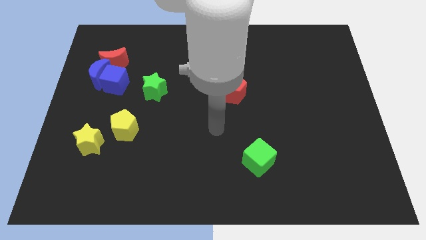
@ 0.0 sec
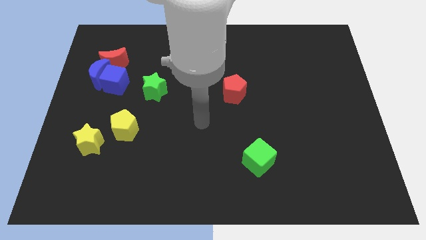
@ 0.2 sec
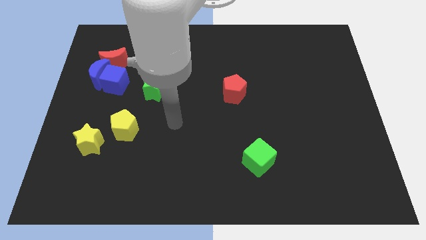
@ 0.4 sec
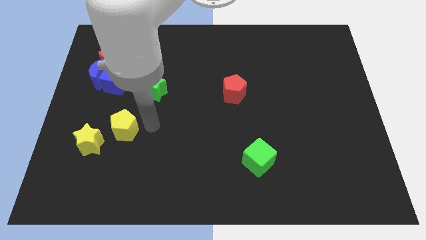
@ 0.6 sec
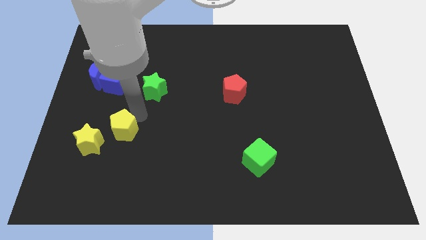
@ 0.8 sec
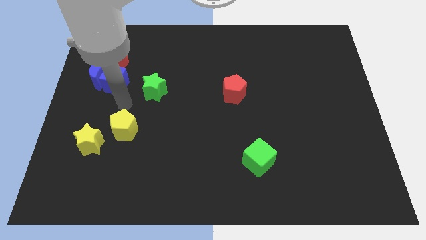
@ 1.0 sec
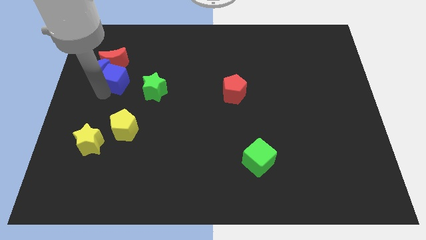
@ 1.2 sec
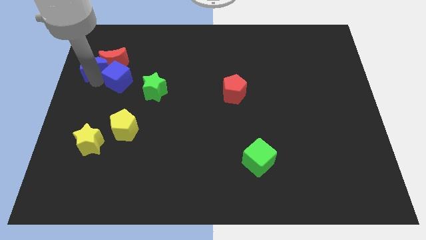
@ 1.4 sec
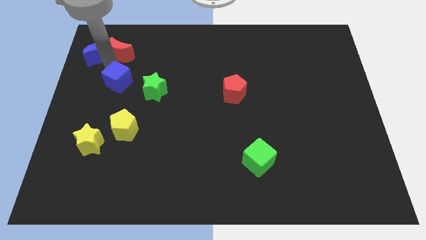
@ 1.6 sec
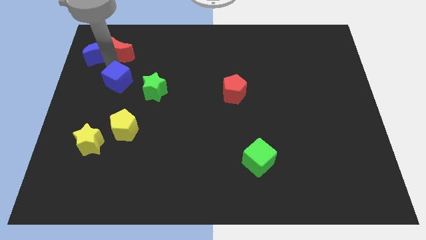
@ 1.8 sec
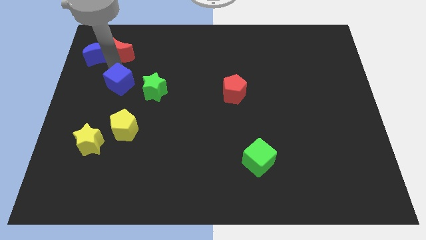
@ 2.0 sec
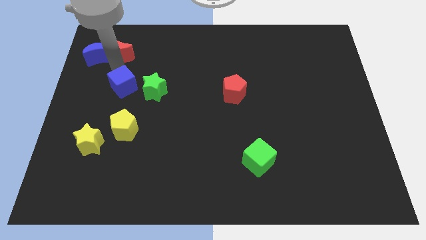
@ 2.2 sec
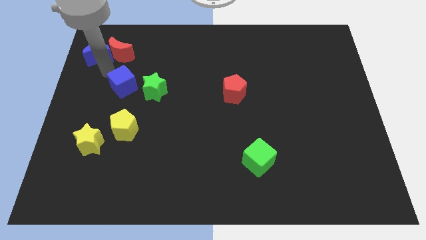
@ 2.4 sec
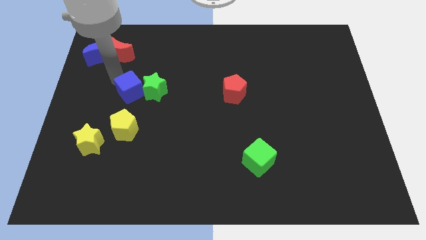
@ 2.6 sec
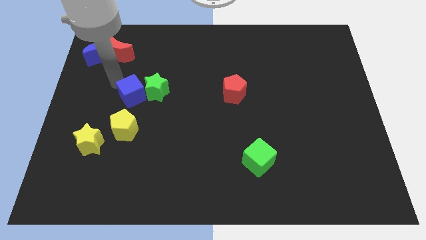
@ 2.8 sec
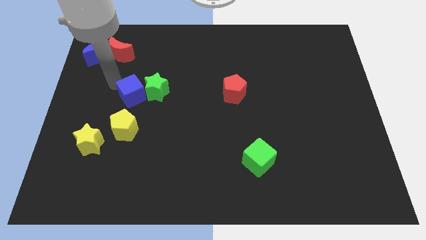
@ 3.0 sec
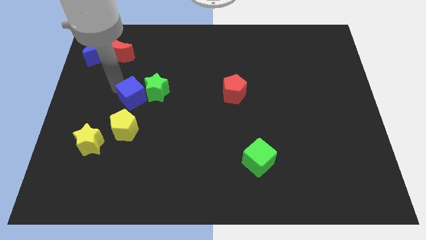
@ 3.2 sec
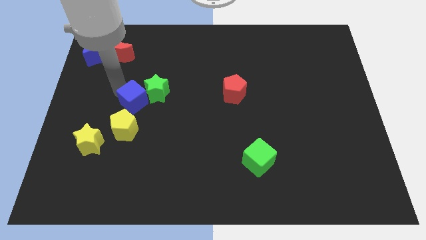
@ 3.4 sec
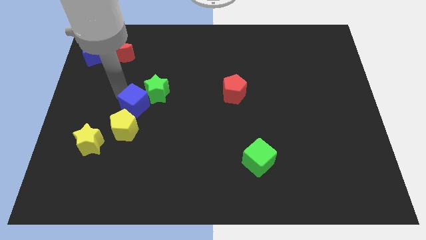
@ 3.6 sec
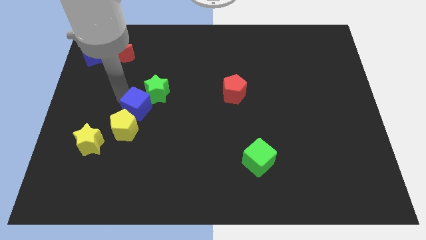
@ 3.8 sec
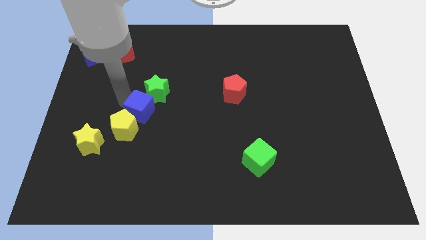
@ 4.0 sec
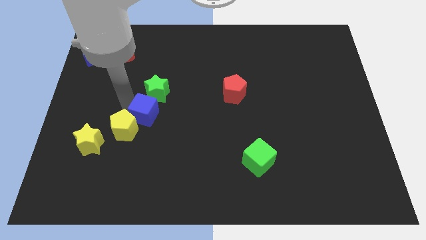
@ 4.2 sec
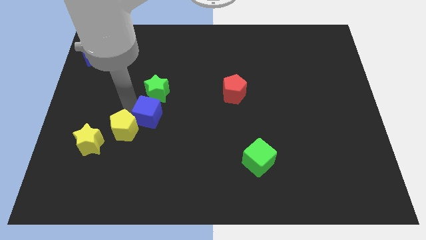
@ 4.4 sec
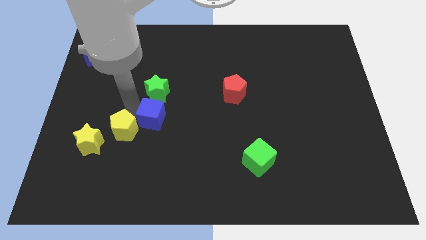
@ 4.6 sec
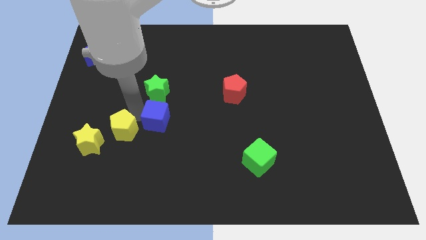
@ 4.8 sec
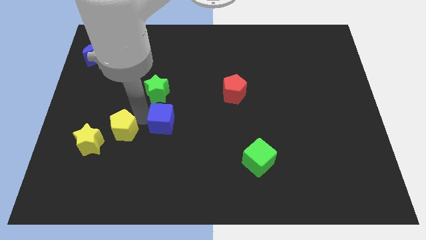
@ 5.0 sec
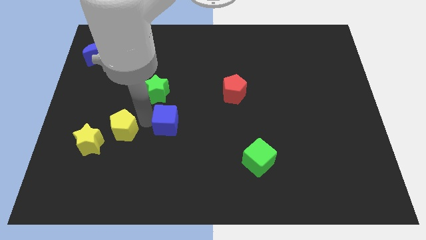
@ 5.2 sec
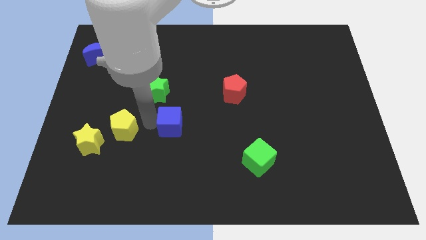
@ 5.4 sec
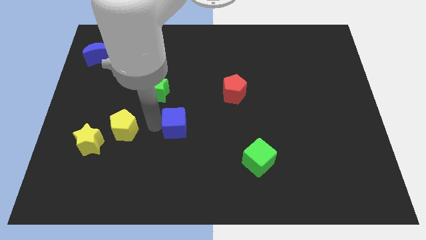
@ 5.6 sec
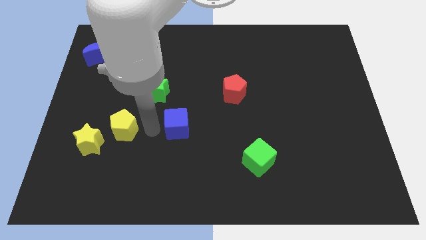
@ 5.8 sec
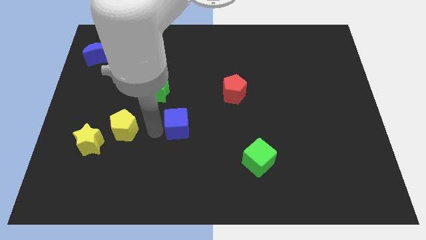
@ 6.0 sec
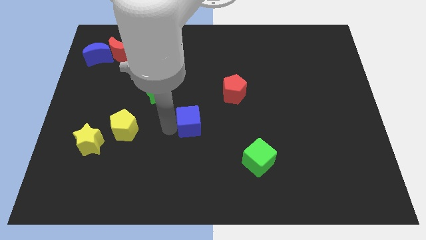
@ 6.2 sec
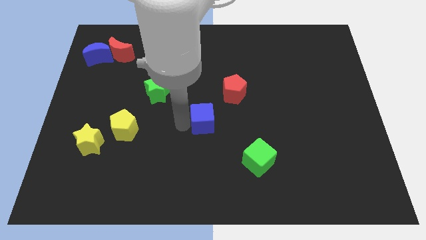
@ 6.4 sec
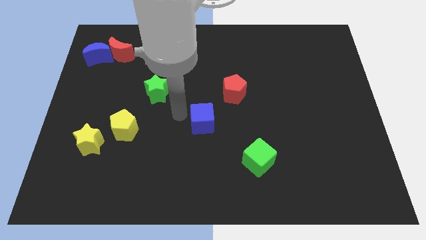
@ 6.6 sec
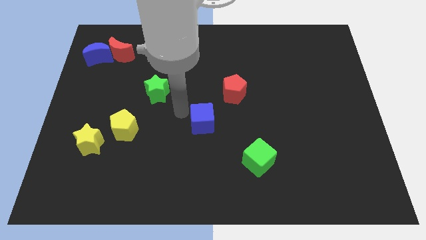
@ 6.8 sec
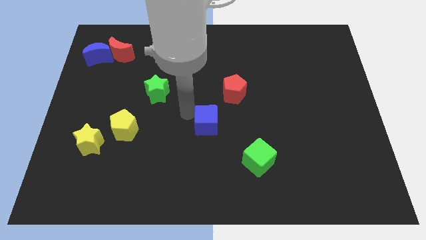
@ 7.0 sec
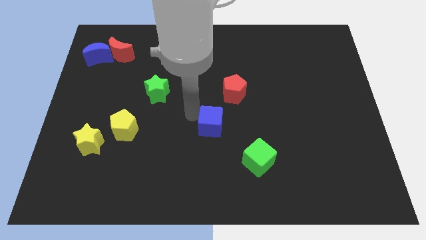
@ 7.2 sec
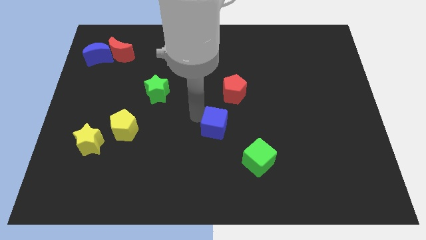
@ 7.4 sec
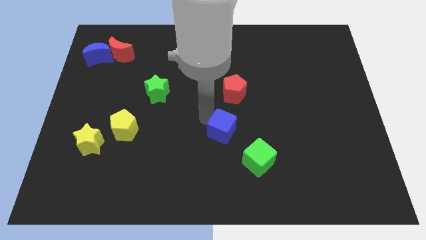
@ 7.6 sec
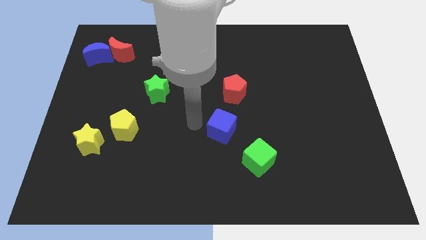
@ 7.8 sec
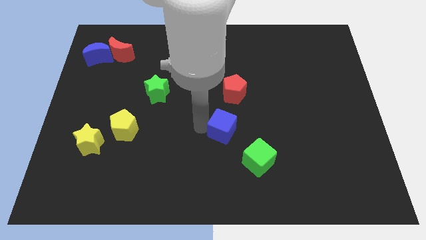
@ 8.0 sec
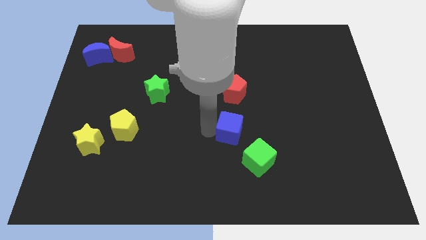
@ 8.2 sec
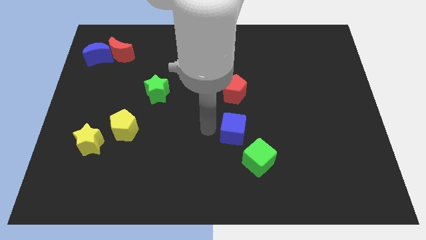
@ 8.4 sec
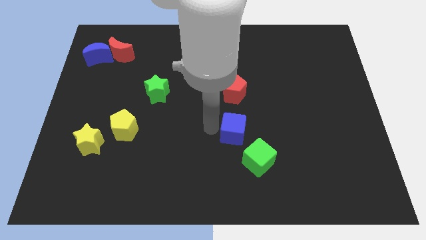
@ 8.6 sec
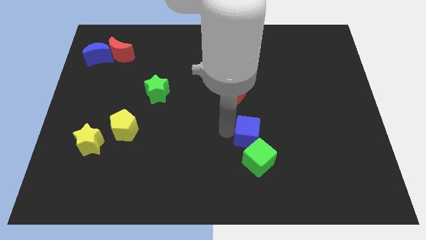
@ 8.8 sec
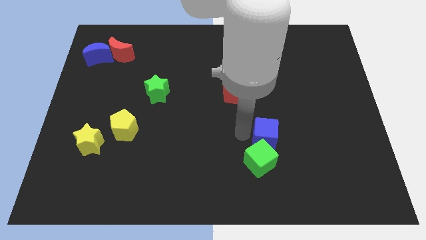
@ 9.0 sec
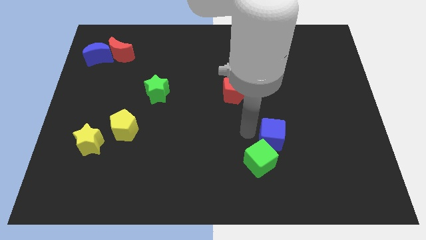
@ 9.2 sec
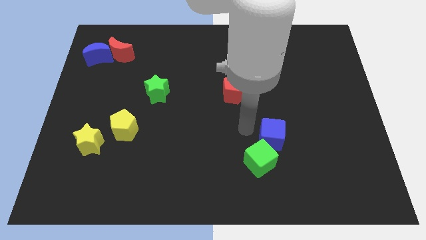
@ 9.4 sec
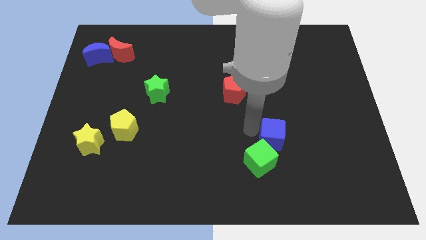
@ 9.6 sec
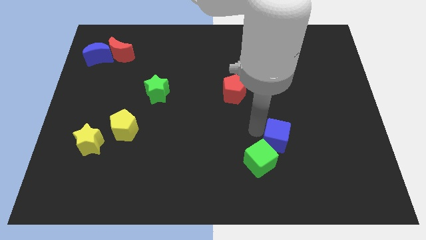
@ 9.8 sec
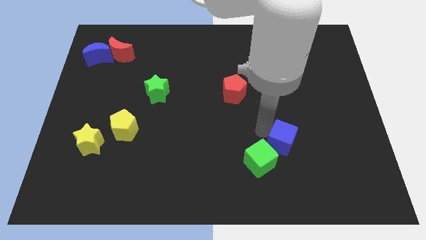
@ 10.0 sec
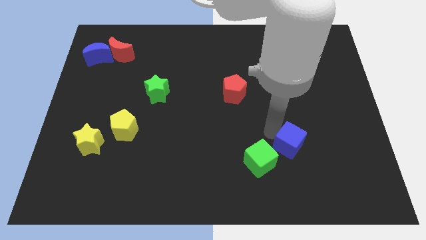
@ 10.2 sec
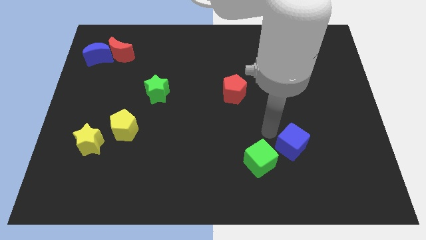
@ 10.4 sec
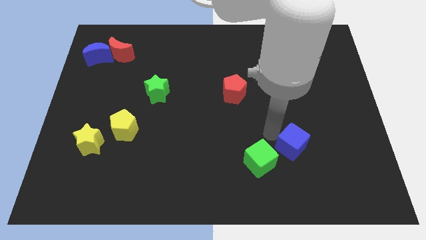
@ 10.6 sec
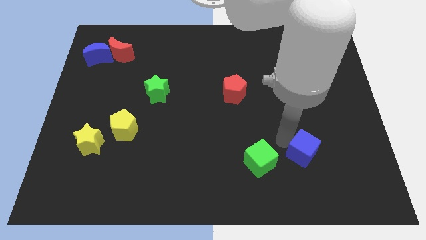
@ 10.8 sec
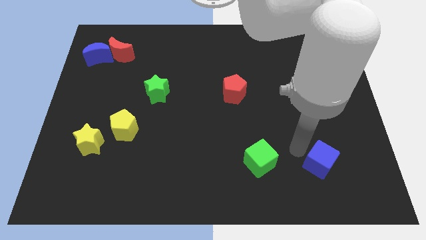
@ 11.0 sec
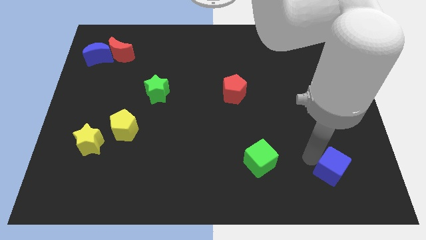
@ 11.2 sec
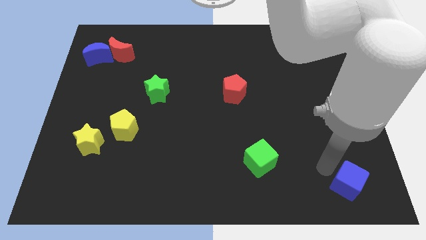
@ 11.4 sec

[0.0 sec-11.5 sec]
push the blue cube to the bottom right
